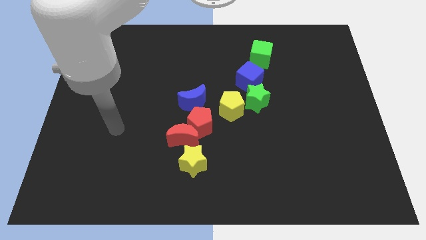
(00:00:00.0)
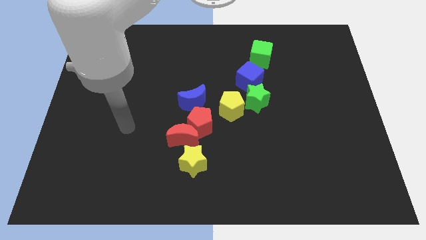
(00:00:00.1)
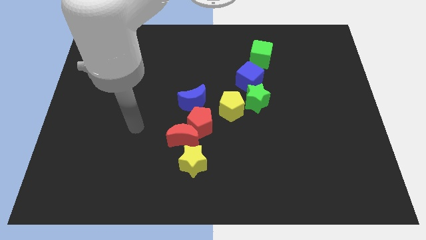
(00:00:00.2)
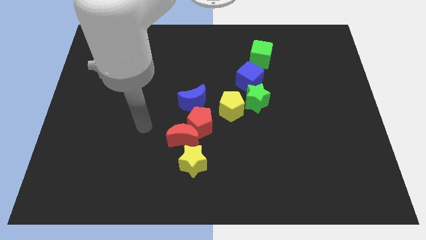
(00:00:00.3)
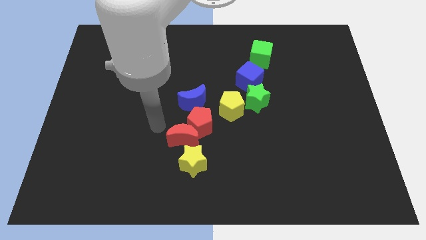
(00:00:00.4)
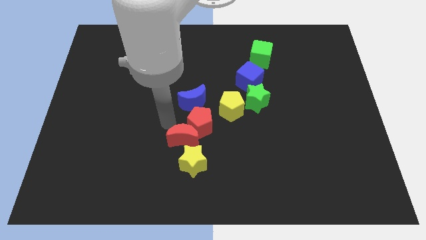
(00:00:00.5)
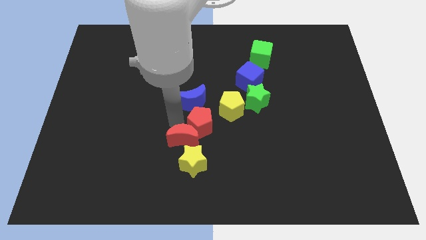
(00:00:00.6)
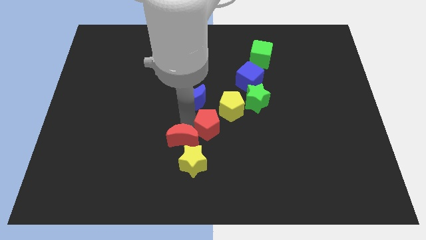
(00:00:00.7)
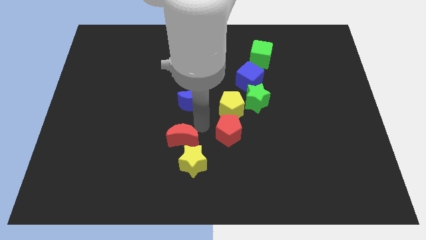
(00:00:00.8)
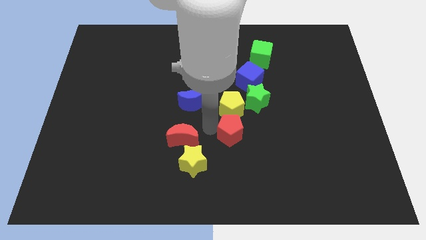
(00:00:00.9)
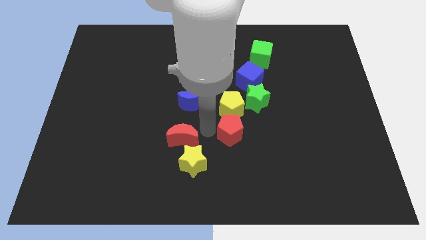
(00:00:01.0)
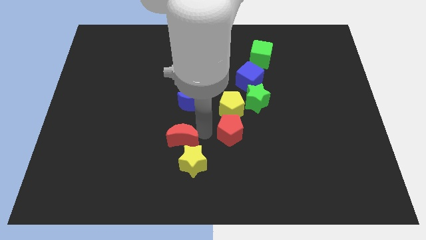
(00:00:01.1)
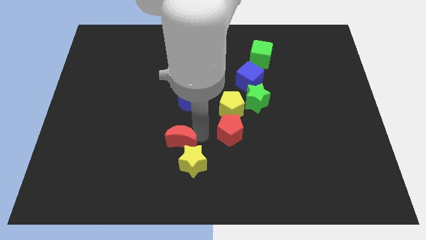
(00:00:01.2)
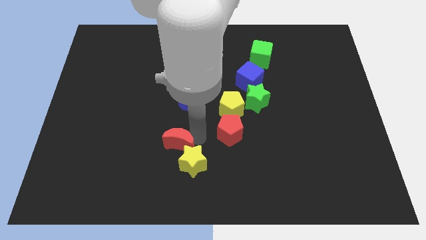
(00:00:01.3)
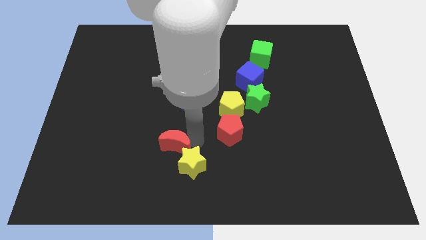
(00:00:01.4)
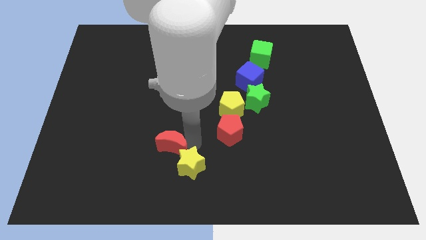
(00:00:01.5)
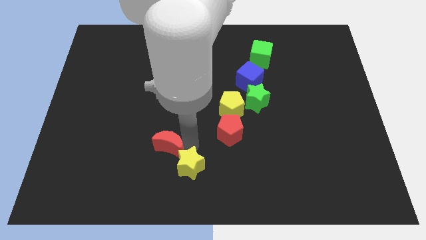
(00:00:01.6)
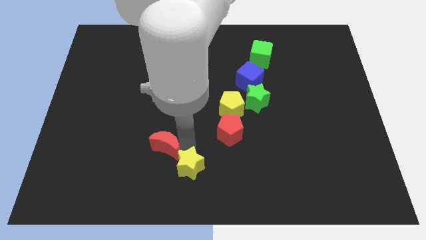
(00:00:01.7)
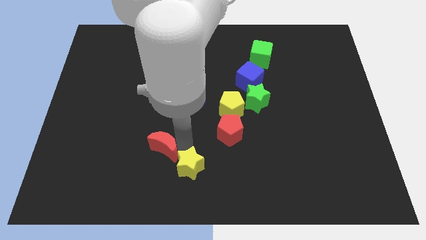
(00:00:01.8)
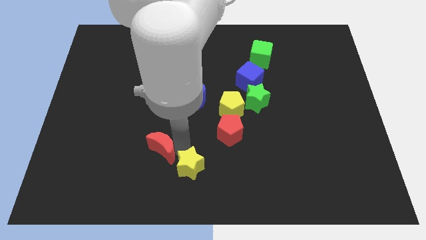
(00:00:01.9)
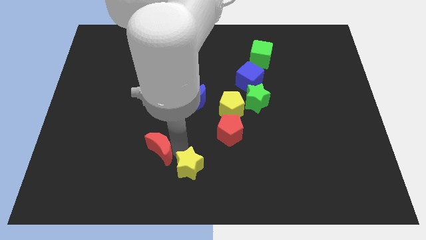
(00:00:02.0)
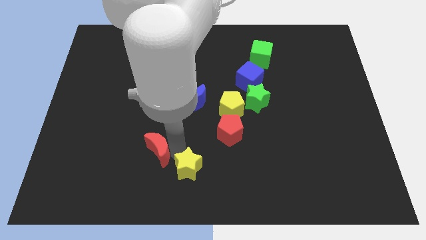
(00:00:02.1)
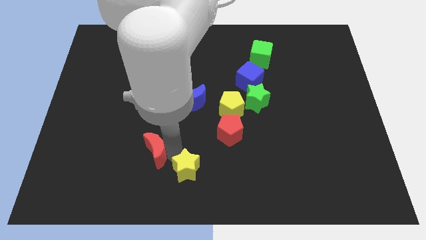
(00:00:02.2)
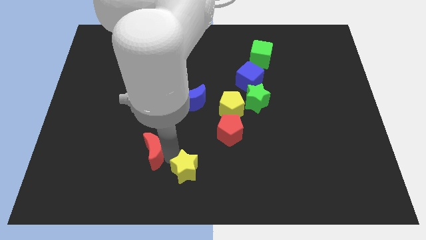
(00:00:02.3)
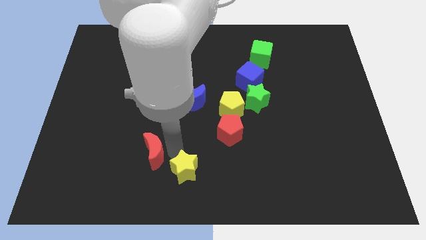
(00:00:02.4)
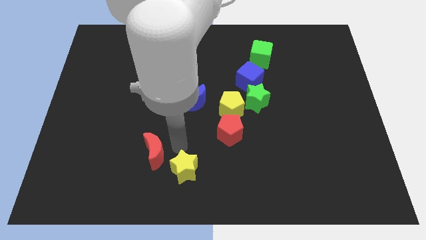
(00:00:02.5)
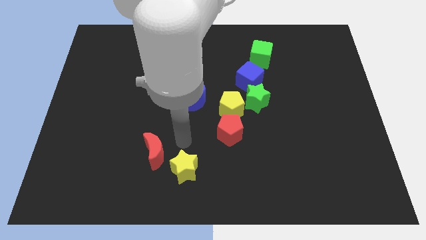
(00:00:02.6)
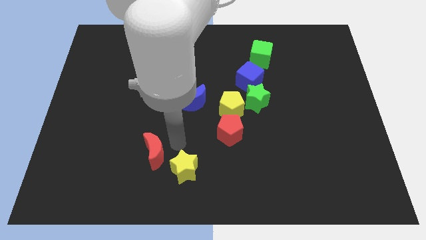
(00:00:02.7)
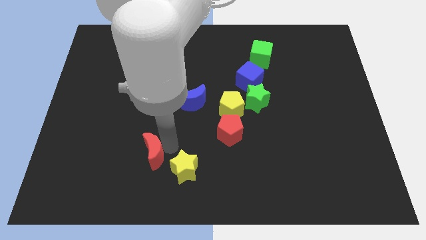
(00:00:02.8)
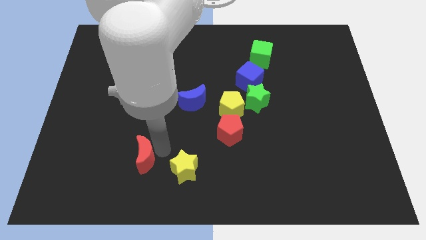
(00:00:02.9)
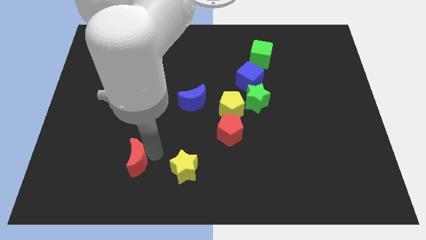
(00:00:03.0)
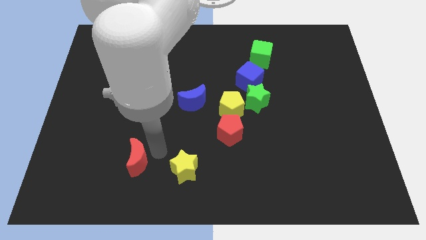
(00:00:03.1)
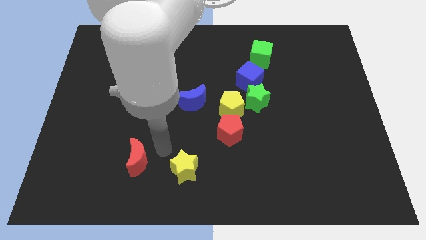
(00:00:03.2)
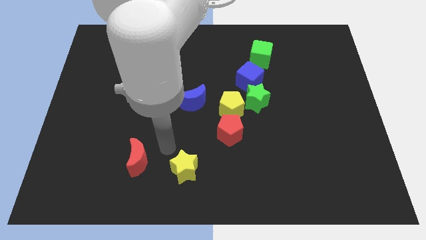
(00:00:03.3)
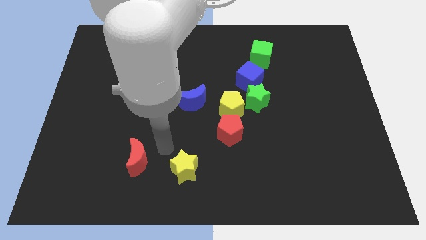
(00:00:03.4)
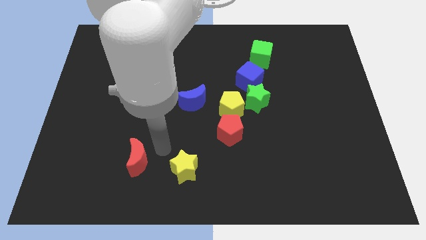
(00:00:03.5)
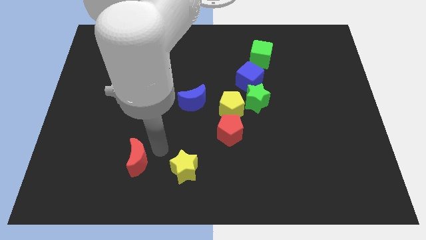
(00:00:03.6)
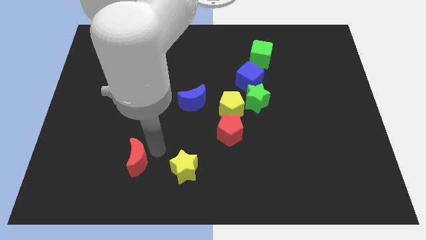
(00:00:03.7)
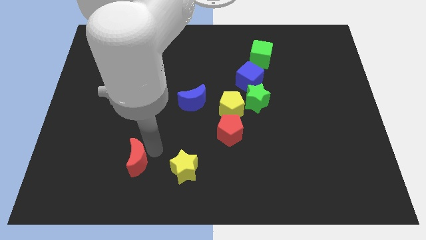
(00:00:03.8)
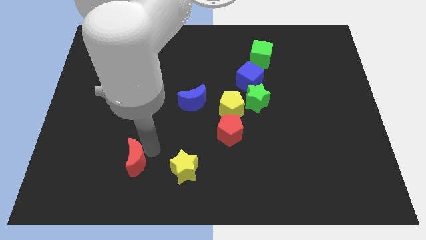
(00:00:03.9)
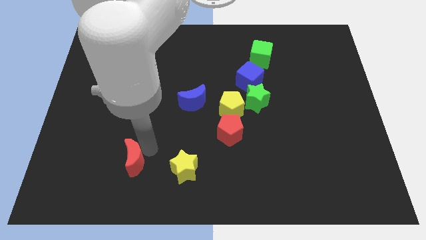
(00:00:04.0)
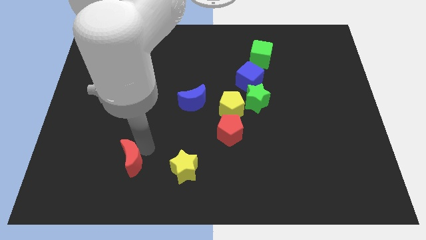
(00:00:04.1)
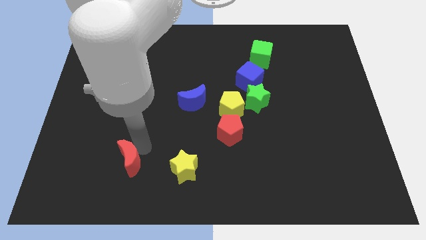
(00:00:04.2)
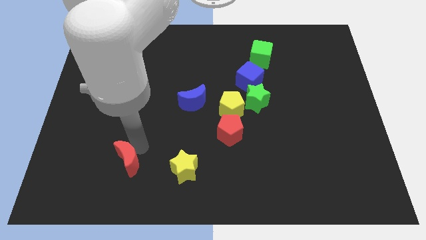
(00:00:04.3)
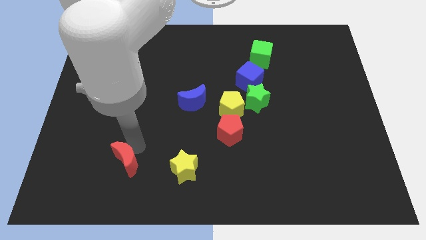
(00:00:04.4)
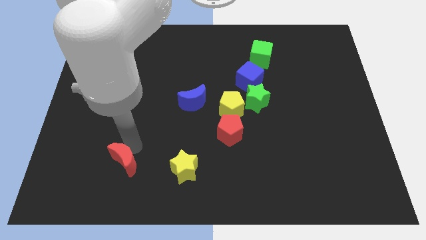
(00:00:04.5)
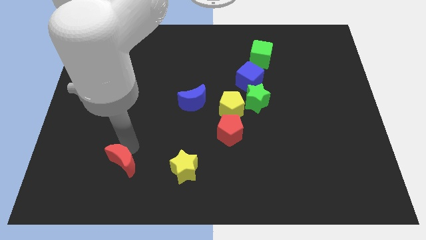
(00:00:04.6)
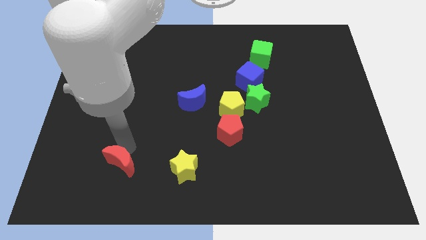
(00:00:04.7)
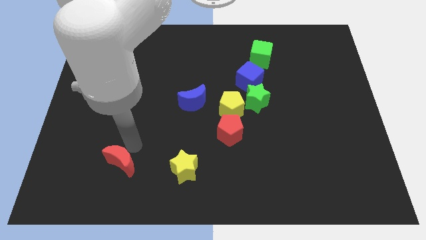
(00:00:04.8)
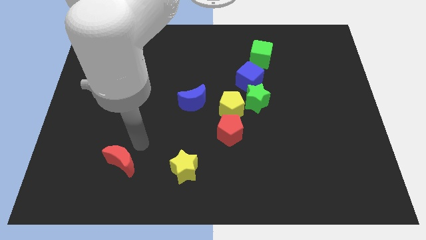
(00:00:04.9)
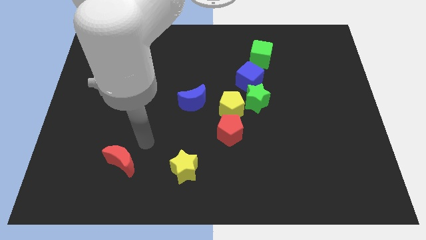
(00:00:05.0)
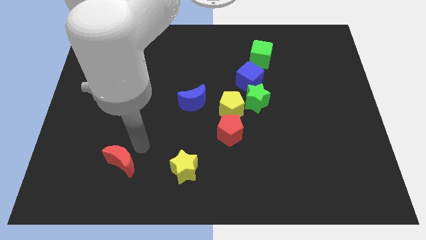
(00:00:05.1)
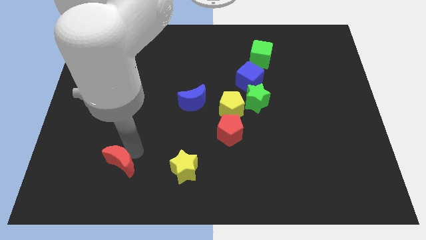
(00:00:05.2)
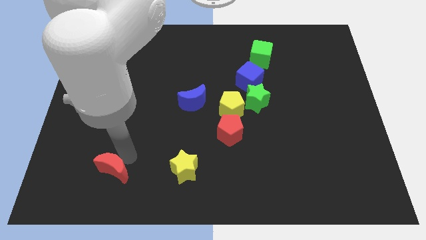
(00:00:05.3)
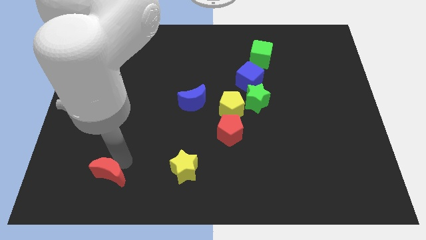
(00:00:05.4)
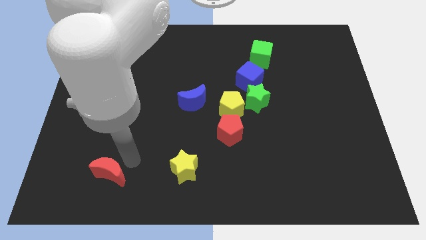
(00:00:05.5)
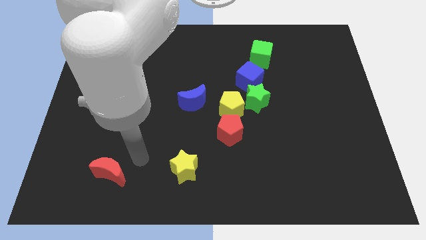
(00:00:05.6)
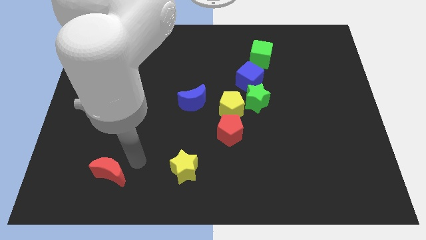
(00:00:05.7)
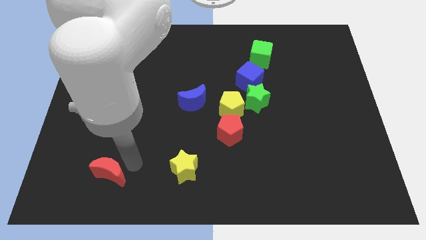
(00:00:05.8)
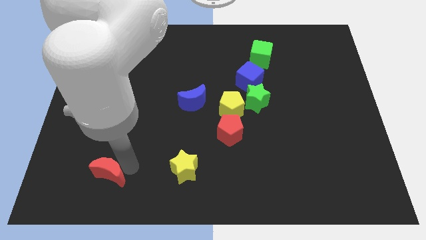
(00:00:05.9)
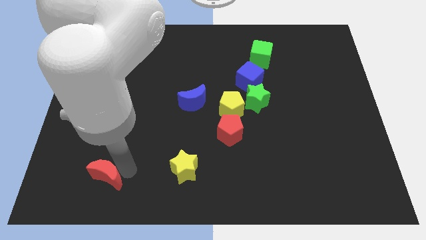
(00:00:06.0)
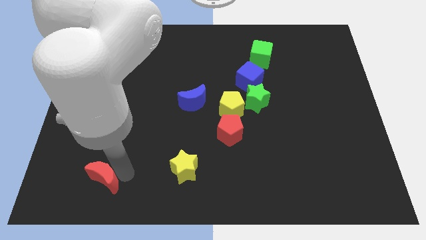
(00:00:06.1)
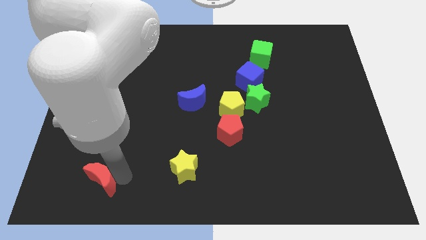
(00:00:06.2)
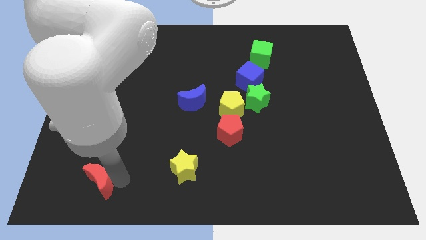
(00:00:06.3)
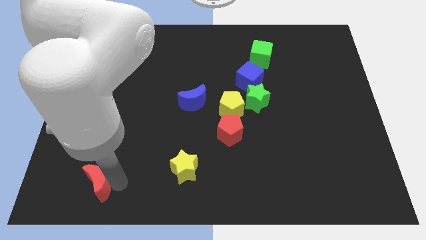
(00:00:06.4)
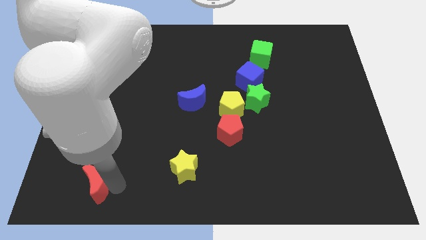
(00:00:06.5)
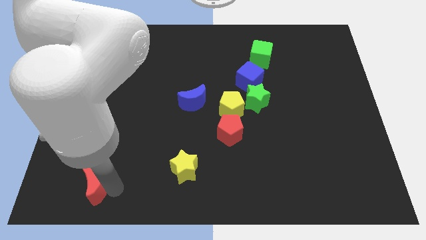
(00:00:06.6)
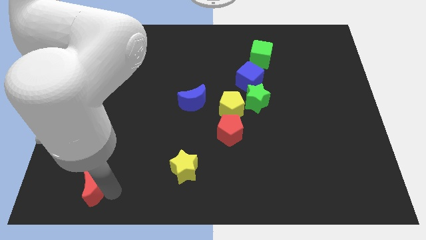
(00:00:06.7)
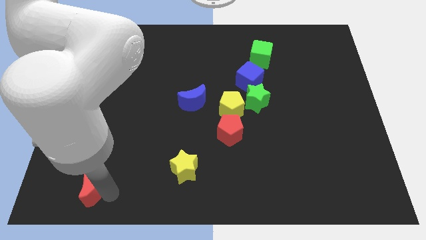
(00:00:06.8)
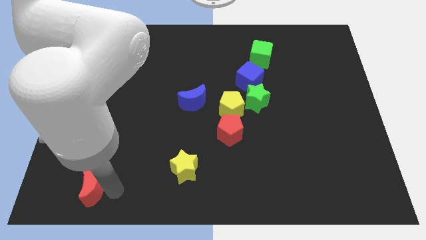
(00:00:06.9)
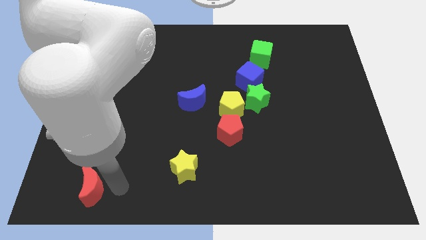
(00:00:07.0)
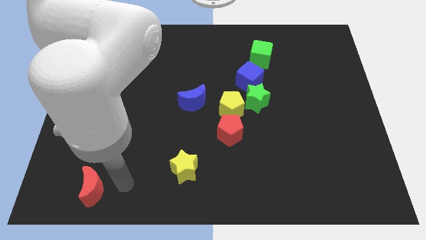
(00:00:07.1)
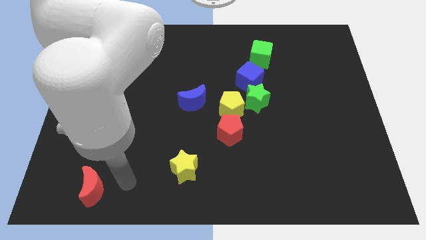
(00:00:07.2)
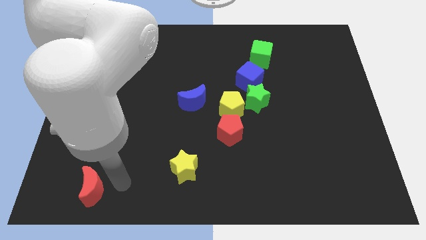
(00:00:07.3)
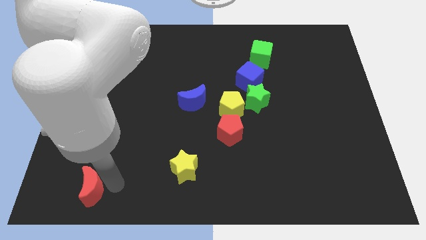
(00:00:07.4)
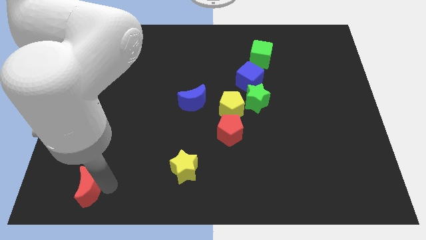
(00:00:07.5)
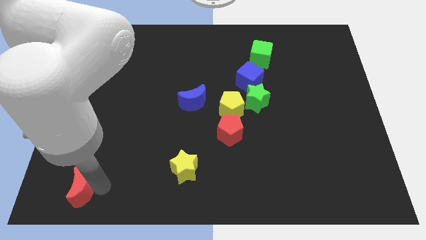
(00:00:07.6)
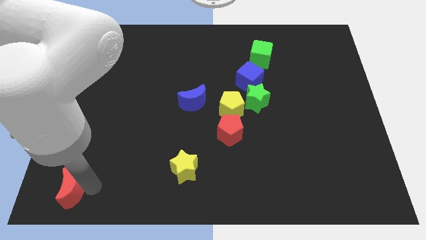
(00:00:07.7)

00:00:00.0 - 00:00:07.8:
push the red moon to the bottom left corner
